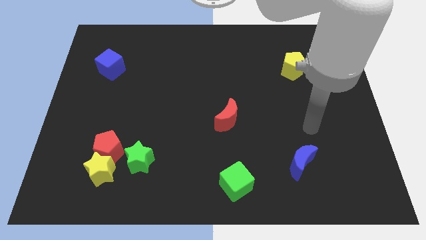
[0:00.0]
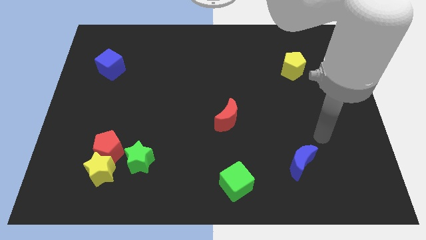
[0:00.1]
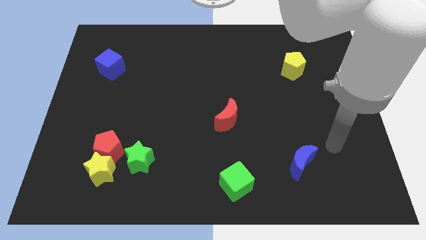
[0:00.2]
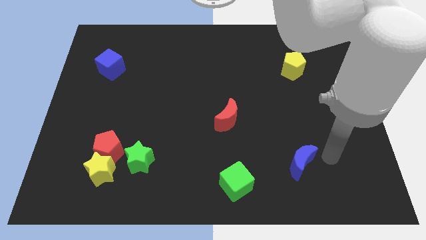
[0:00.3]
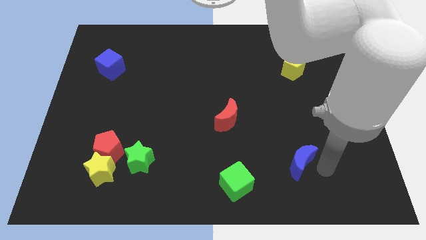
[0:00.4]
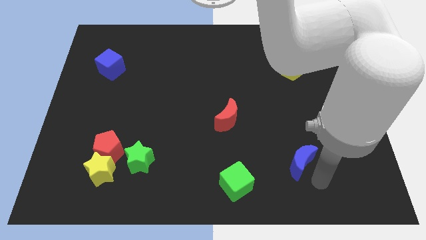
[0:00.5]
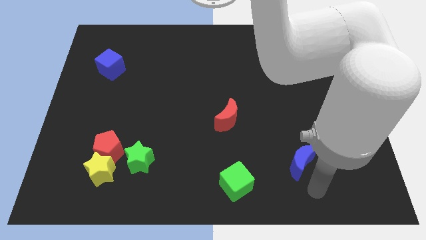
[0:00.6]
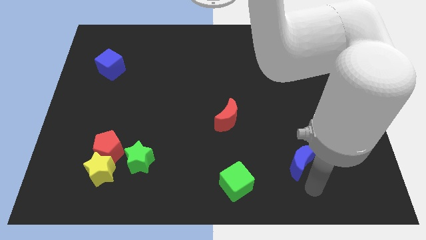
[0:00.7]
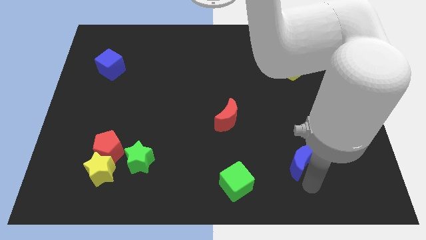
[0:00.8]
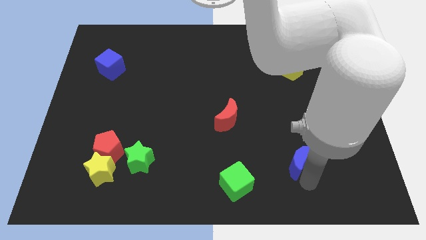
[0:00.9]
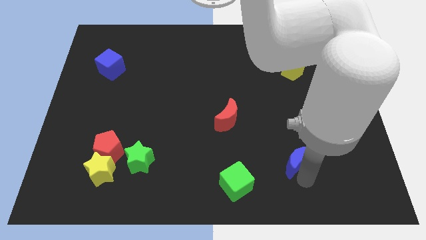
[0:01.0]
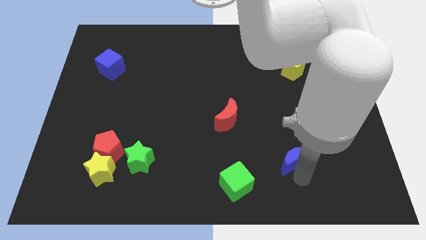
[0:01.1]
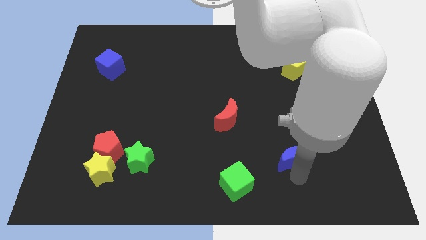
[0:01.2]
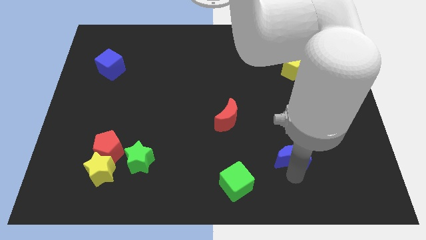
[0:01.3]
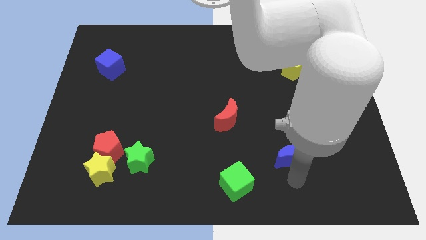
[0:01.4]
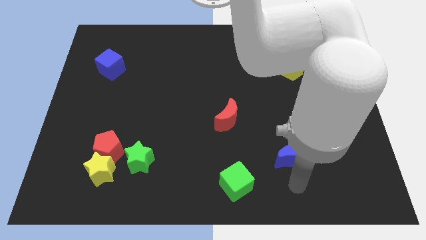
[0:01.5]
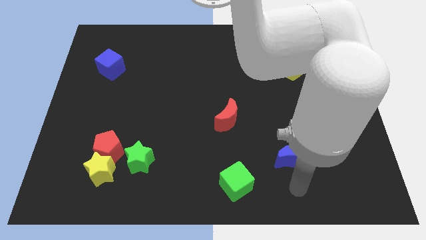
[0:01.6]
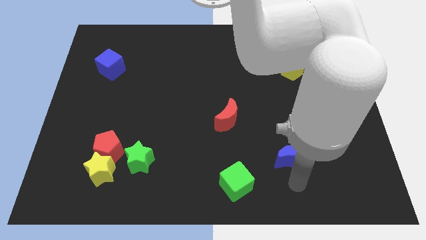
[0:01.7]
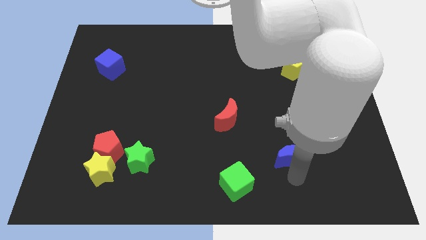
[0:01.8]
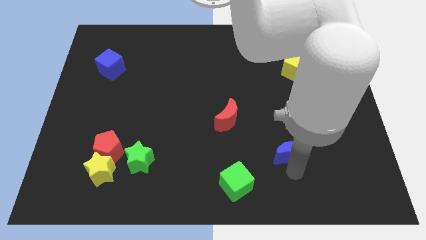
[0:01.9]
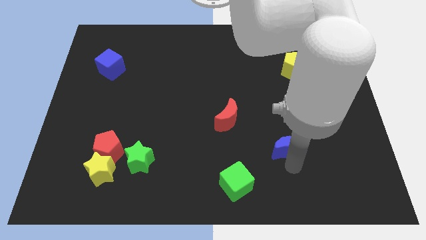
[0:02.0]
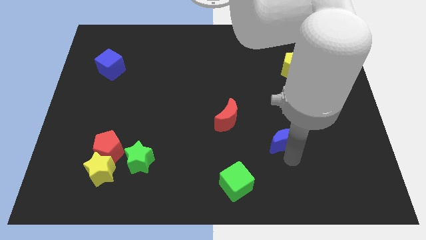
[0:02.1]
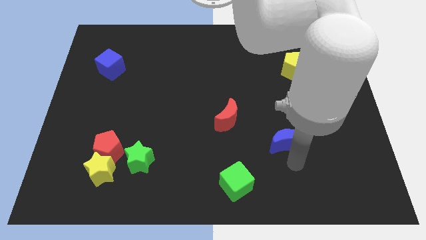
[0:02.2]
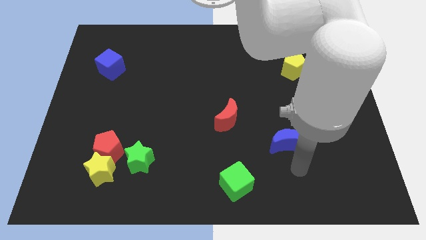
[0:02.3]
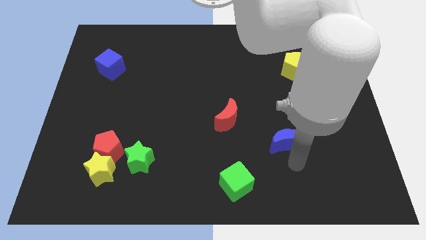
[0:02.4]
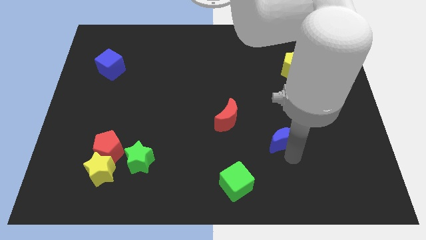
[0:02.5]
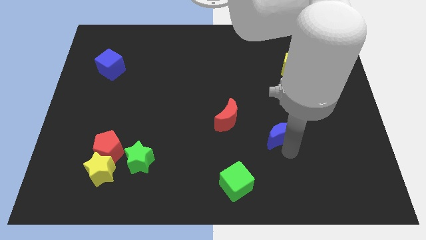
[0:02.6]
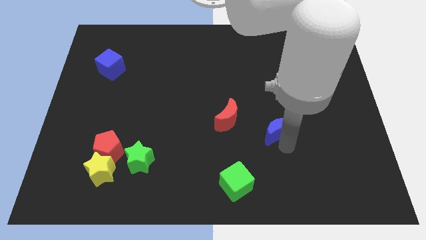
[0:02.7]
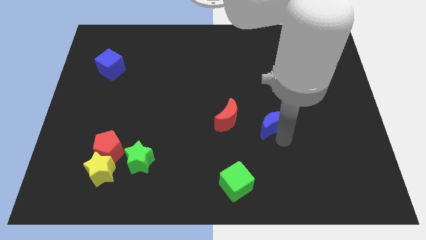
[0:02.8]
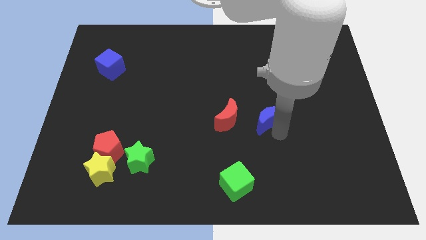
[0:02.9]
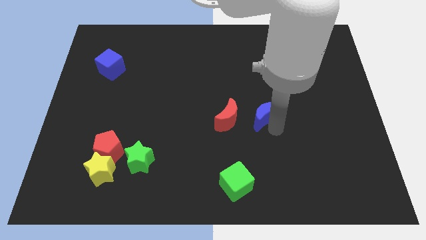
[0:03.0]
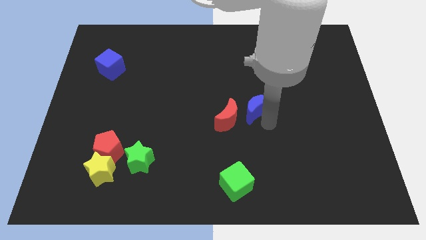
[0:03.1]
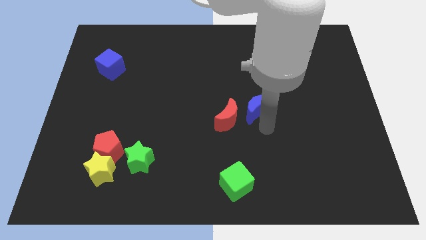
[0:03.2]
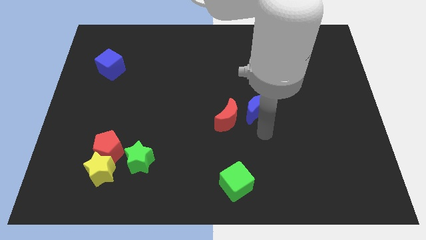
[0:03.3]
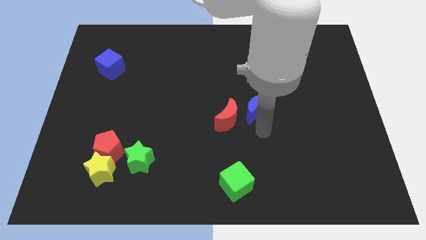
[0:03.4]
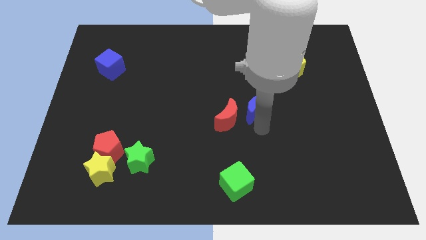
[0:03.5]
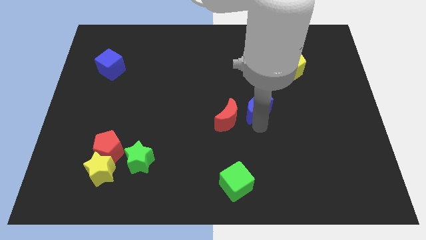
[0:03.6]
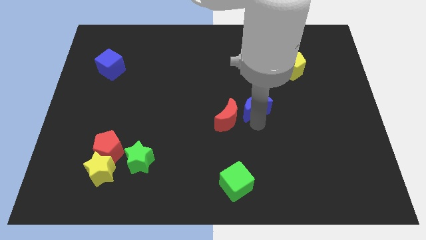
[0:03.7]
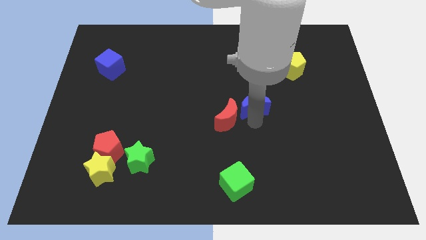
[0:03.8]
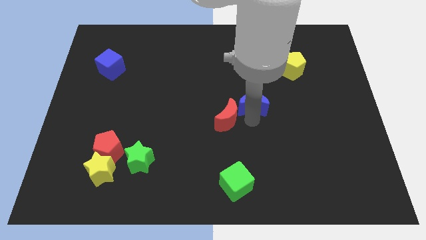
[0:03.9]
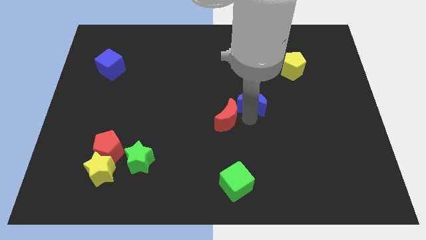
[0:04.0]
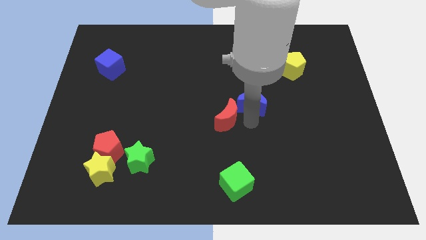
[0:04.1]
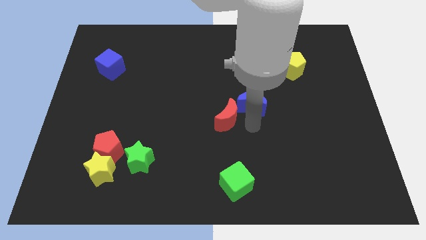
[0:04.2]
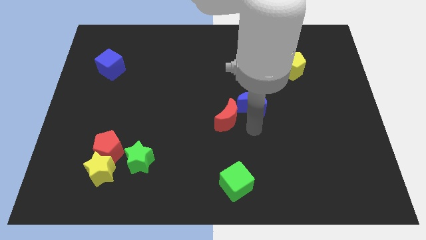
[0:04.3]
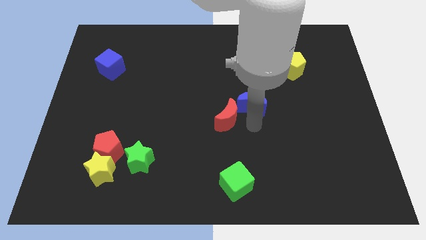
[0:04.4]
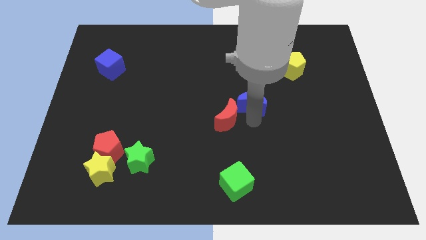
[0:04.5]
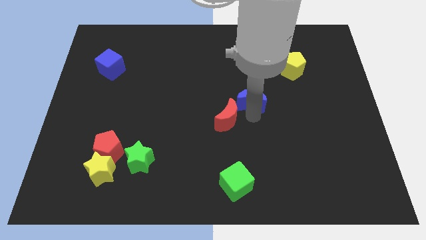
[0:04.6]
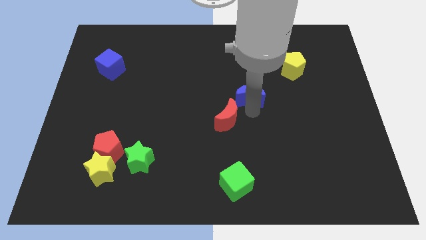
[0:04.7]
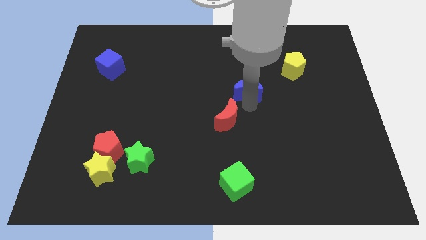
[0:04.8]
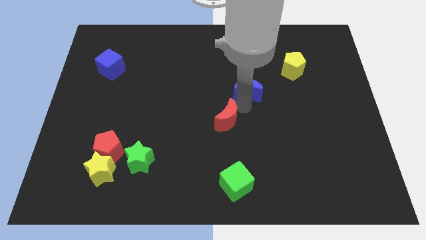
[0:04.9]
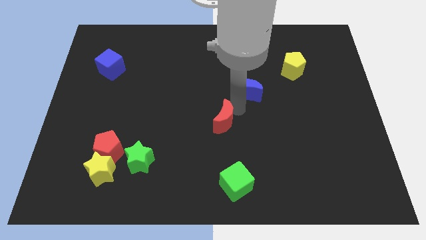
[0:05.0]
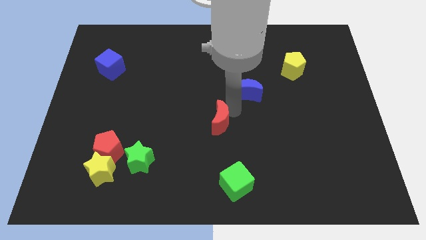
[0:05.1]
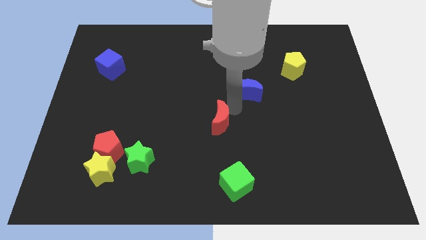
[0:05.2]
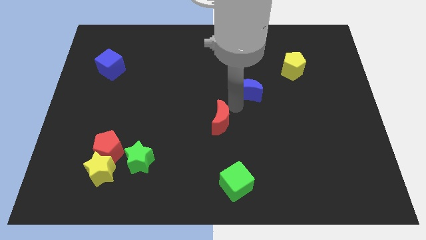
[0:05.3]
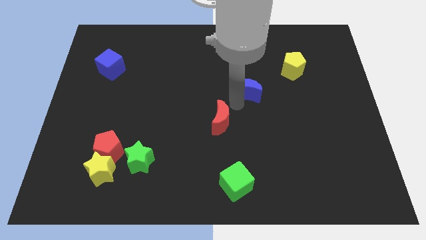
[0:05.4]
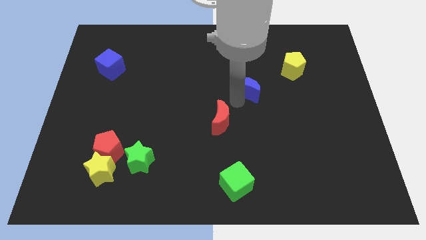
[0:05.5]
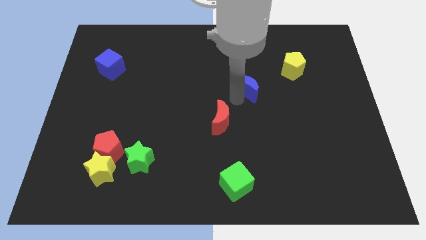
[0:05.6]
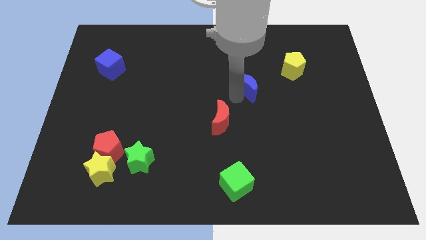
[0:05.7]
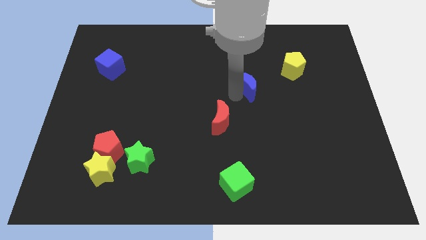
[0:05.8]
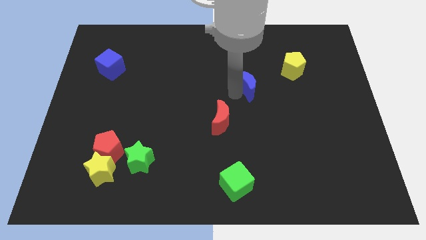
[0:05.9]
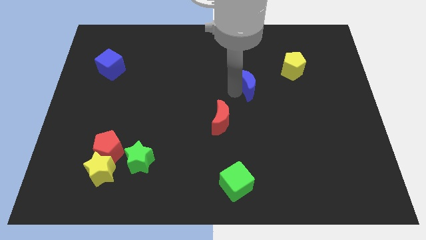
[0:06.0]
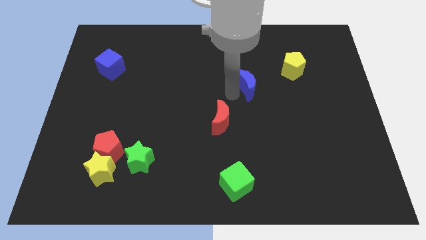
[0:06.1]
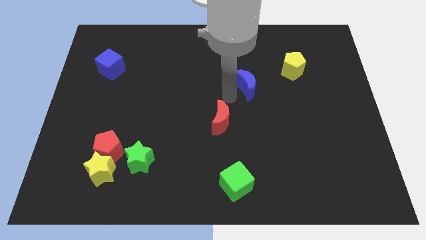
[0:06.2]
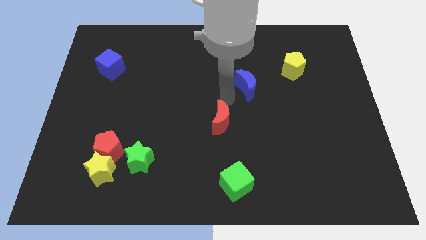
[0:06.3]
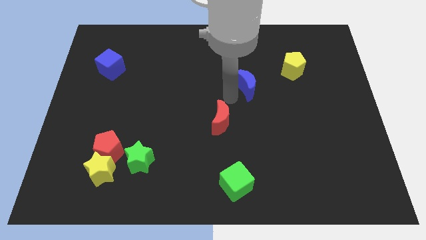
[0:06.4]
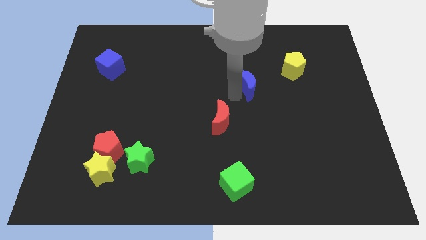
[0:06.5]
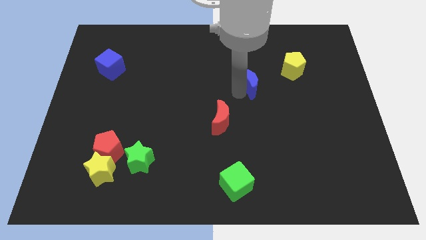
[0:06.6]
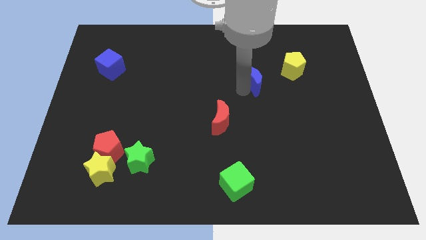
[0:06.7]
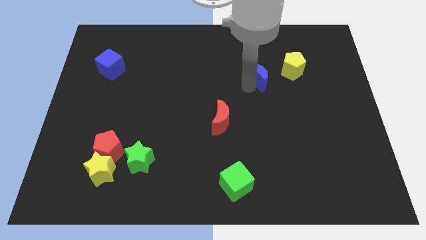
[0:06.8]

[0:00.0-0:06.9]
slide the blue moon upwards

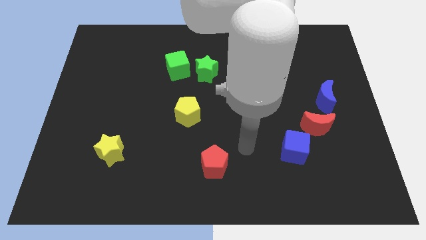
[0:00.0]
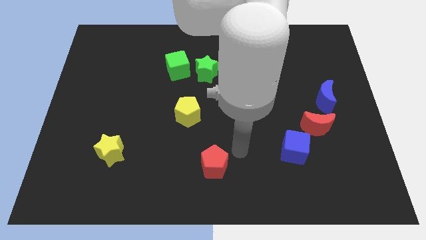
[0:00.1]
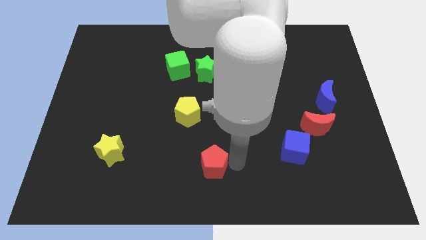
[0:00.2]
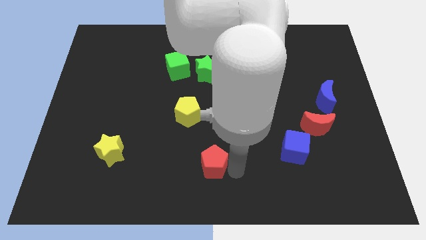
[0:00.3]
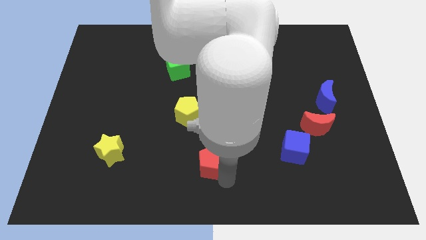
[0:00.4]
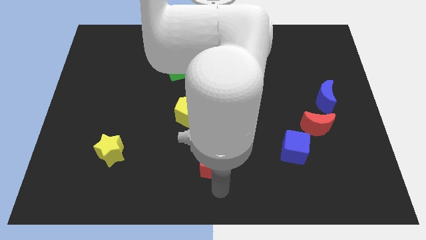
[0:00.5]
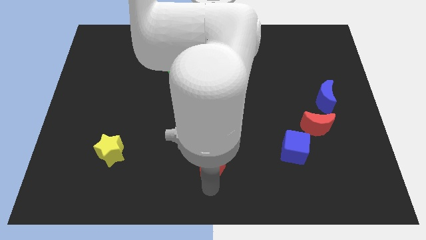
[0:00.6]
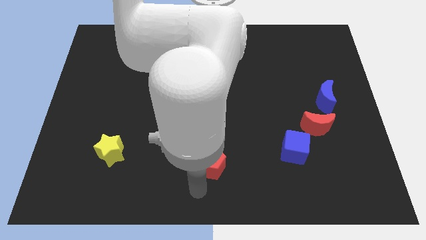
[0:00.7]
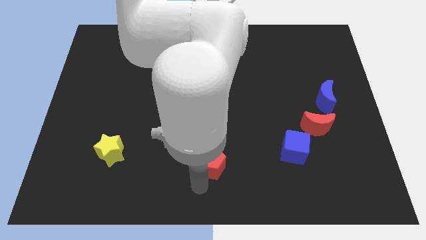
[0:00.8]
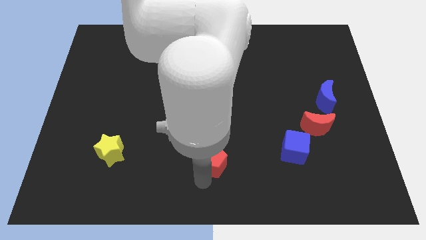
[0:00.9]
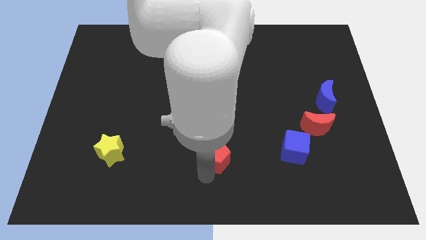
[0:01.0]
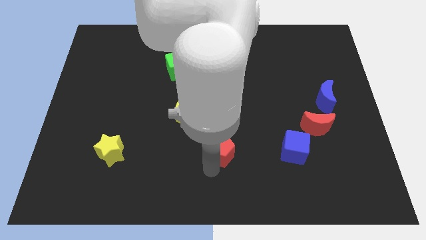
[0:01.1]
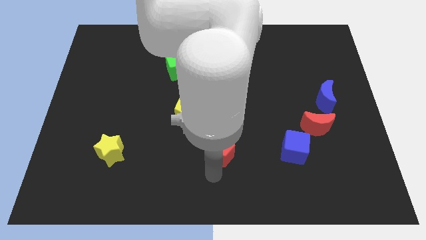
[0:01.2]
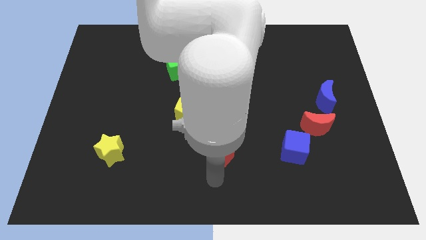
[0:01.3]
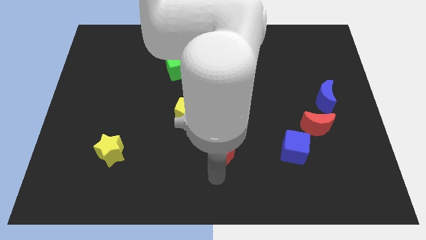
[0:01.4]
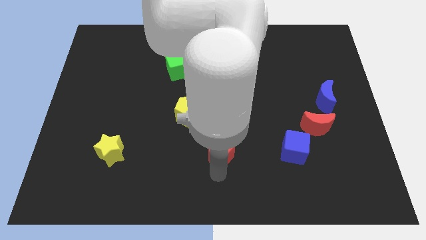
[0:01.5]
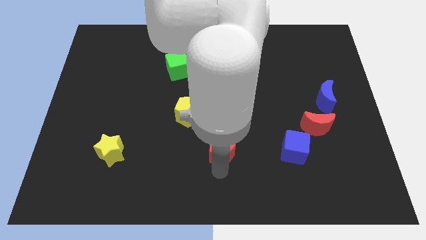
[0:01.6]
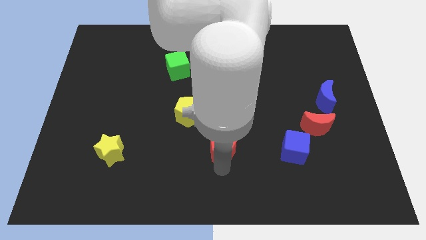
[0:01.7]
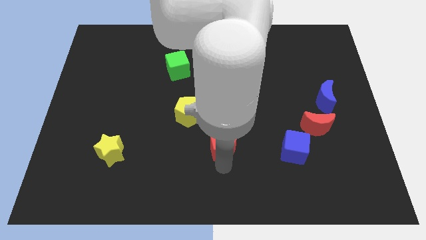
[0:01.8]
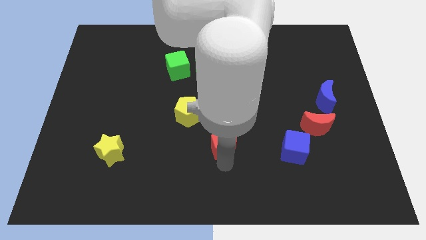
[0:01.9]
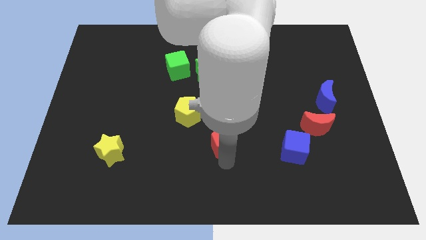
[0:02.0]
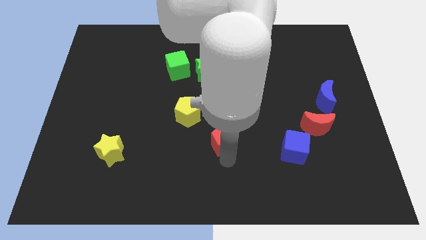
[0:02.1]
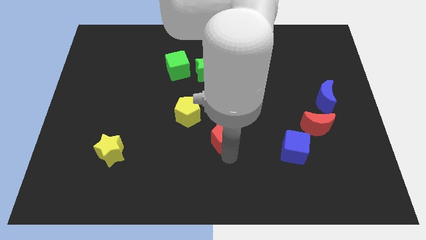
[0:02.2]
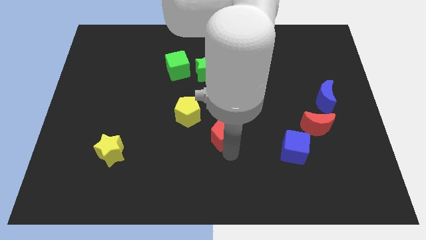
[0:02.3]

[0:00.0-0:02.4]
slide the red pentagon somewhat up
